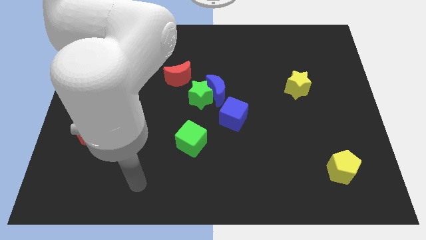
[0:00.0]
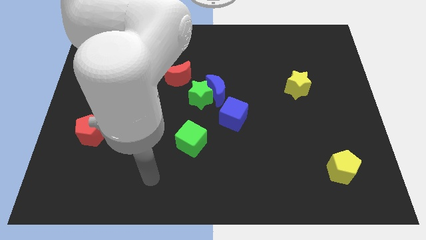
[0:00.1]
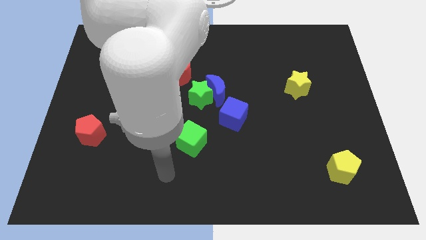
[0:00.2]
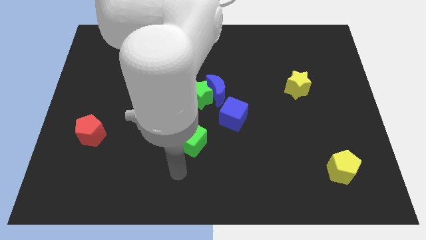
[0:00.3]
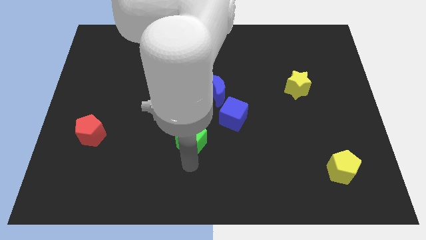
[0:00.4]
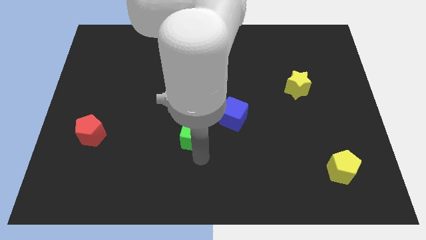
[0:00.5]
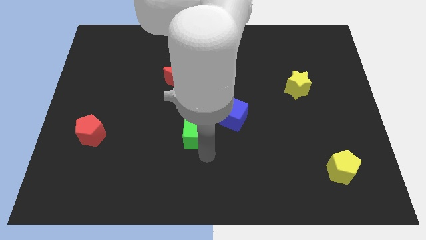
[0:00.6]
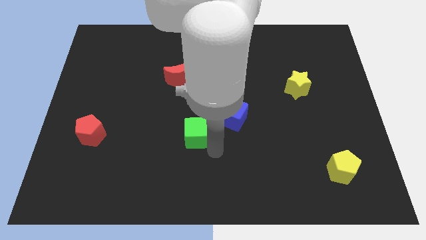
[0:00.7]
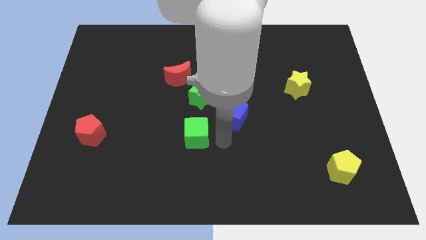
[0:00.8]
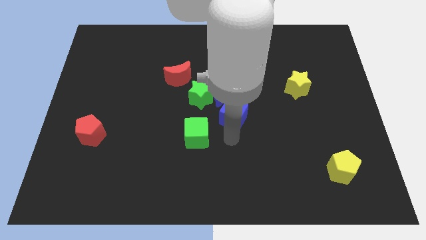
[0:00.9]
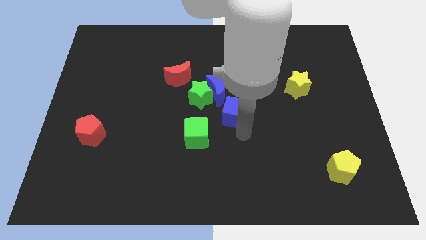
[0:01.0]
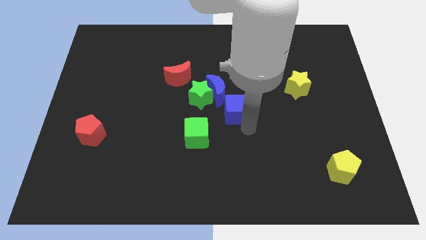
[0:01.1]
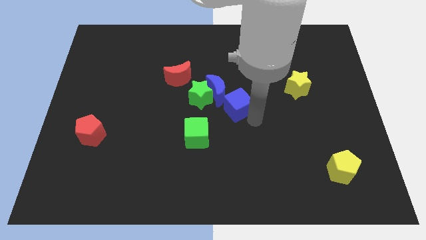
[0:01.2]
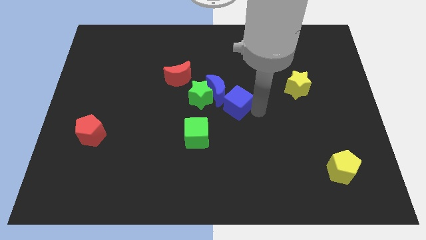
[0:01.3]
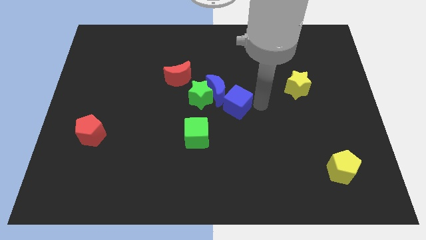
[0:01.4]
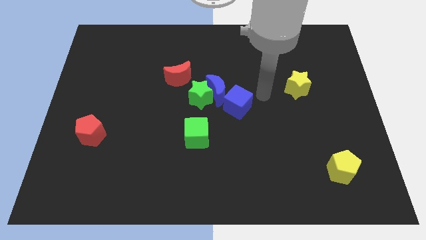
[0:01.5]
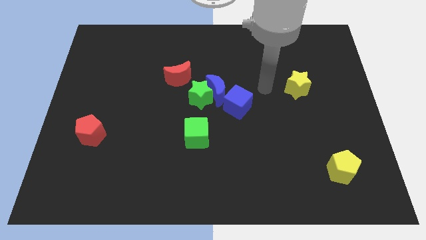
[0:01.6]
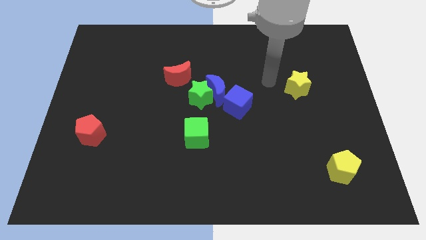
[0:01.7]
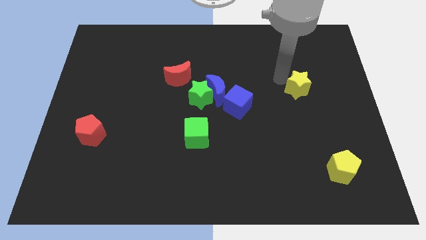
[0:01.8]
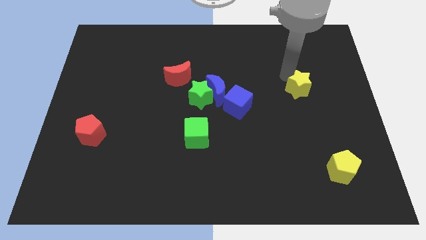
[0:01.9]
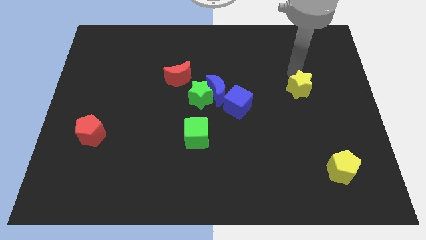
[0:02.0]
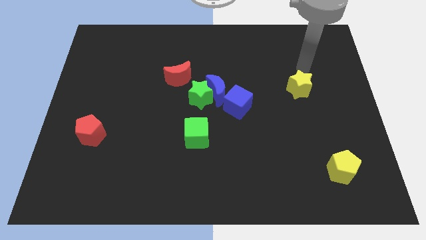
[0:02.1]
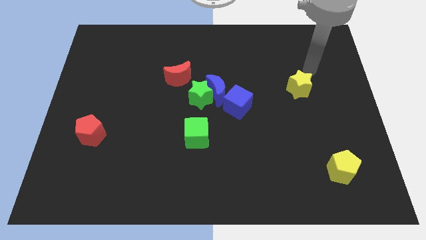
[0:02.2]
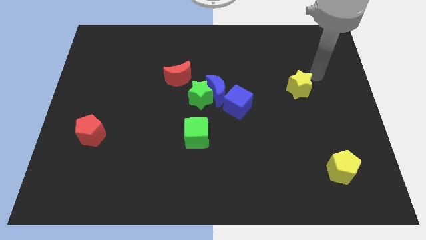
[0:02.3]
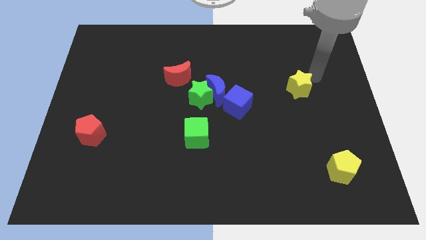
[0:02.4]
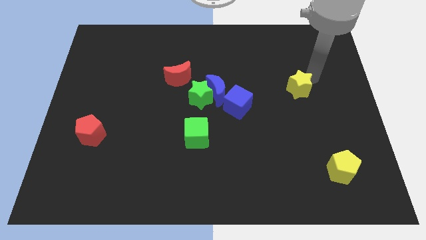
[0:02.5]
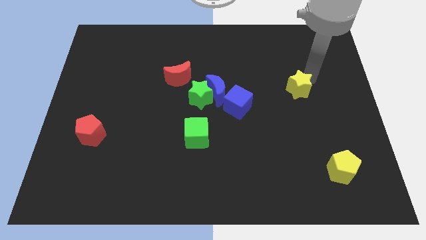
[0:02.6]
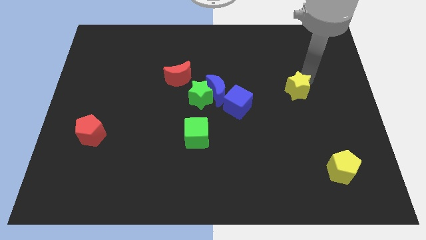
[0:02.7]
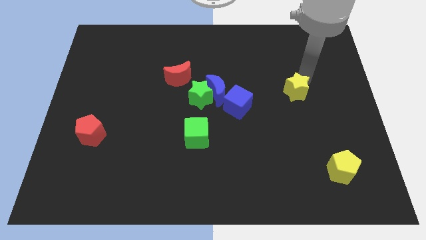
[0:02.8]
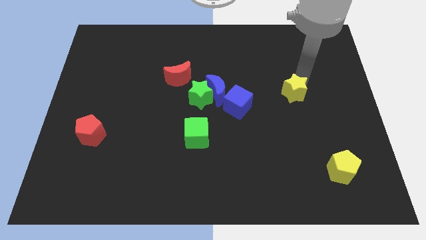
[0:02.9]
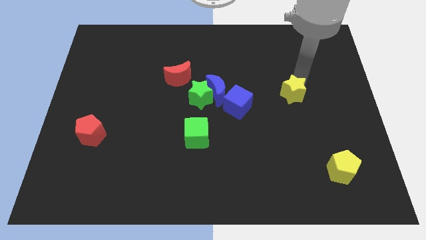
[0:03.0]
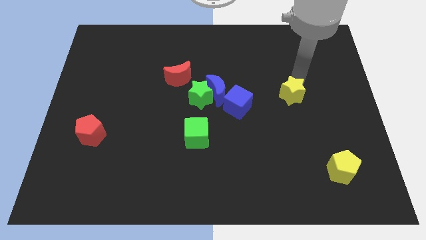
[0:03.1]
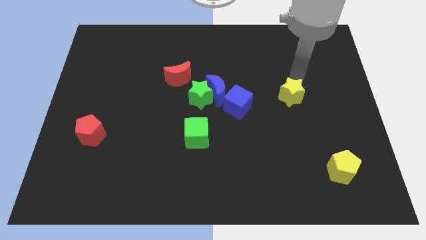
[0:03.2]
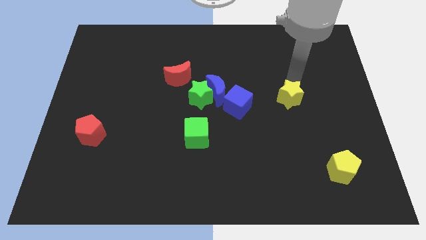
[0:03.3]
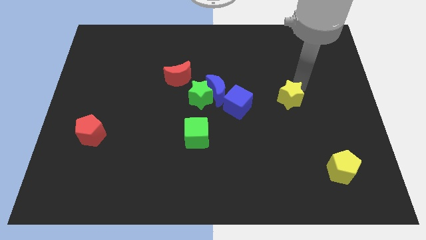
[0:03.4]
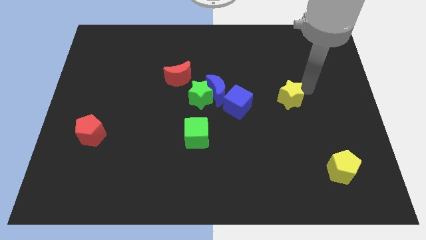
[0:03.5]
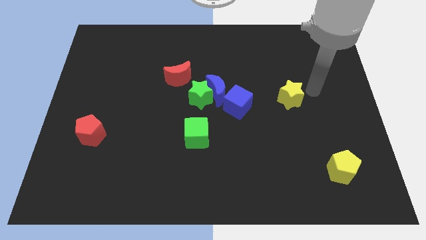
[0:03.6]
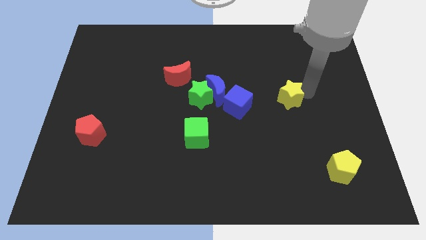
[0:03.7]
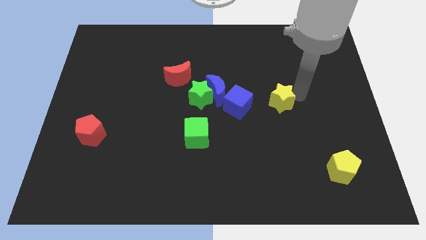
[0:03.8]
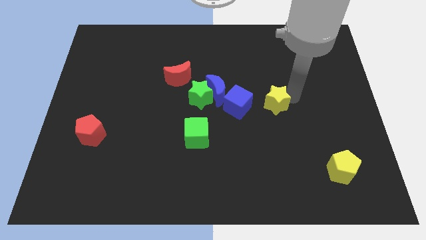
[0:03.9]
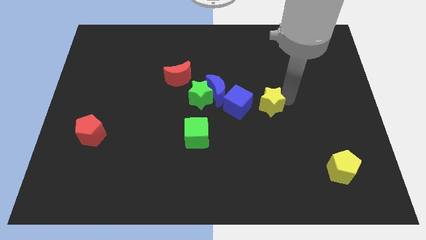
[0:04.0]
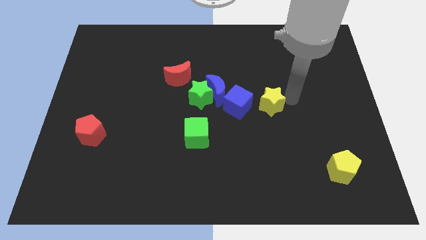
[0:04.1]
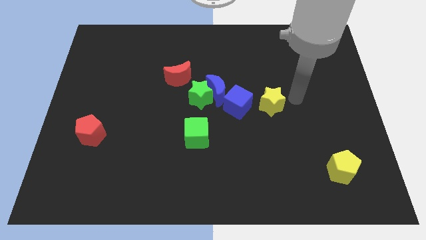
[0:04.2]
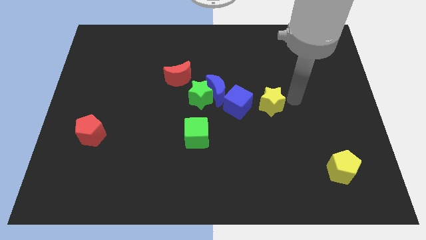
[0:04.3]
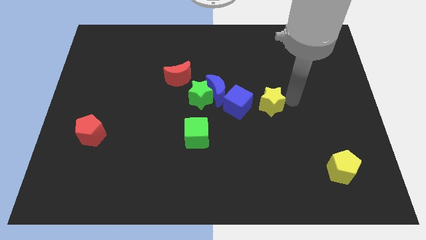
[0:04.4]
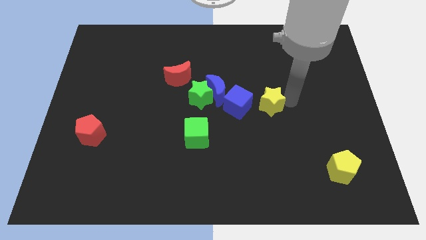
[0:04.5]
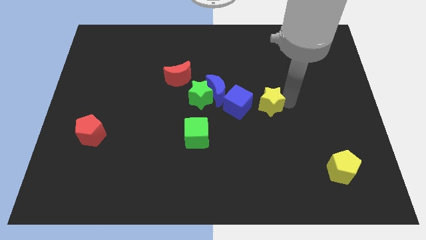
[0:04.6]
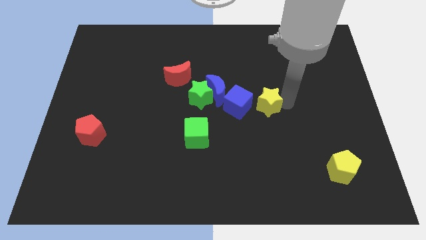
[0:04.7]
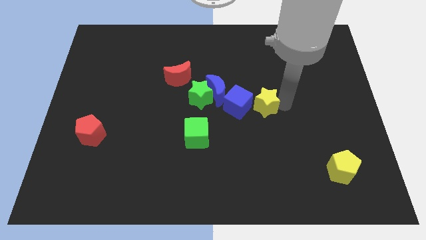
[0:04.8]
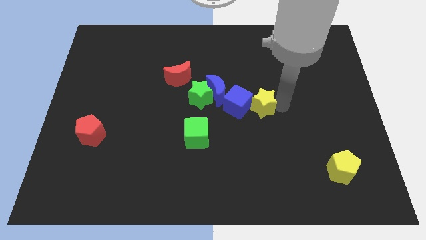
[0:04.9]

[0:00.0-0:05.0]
push the yellow star close to the blue cube

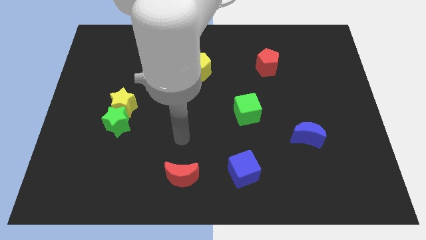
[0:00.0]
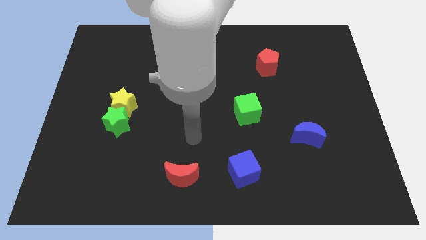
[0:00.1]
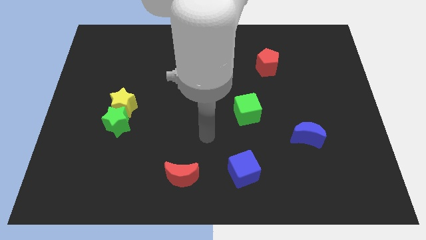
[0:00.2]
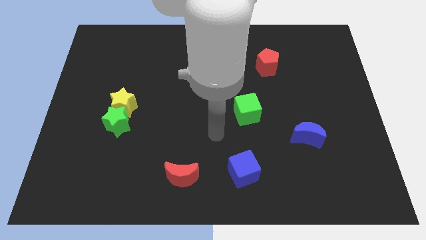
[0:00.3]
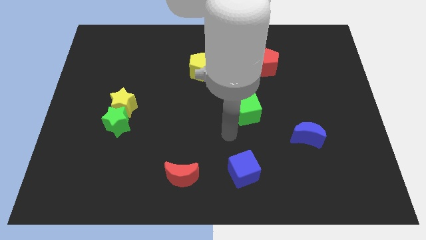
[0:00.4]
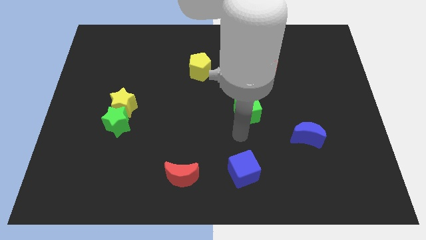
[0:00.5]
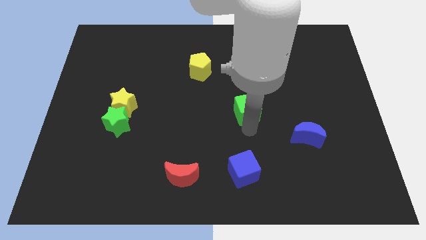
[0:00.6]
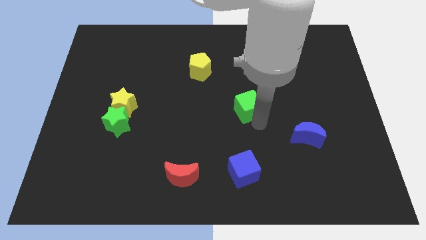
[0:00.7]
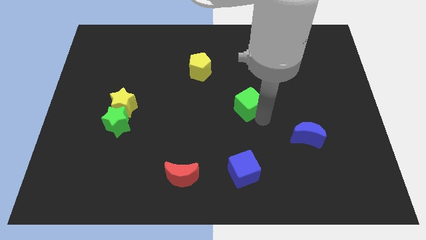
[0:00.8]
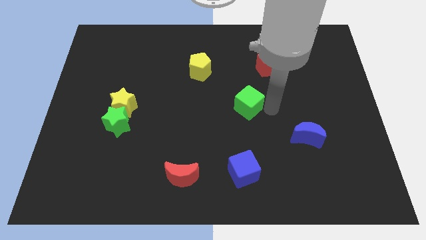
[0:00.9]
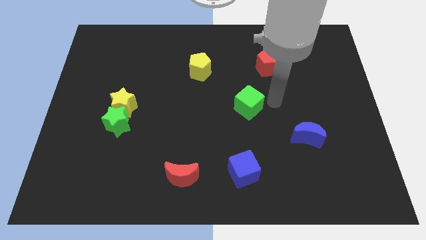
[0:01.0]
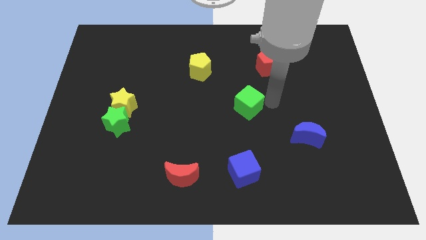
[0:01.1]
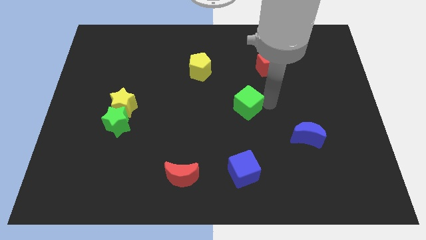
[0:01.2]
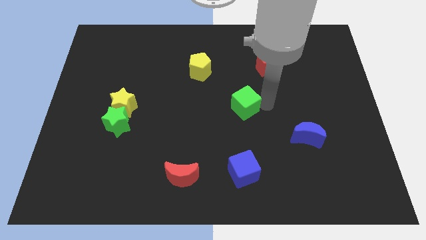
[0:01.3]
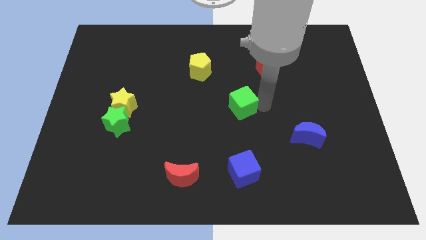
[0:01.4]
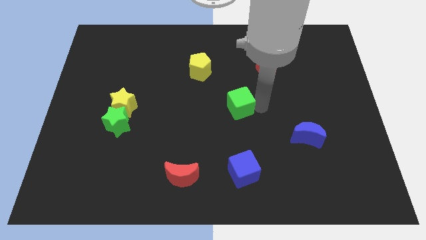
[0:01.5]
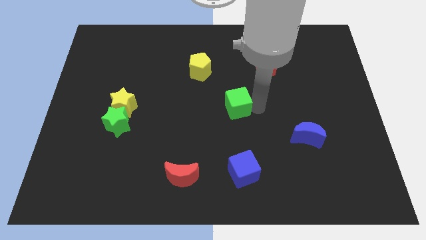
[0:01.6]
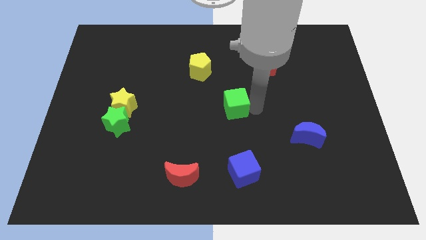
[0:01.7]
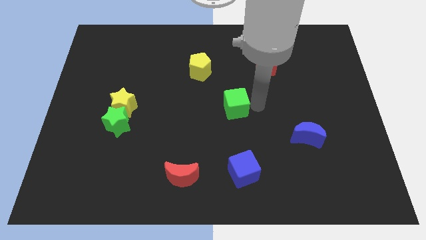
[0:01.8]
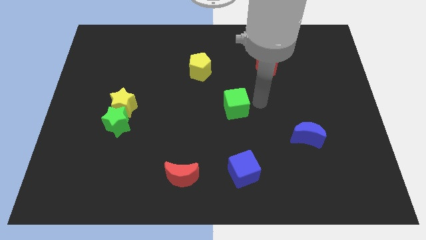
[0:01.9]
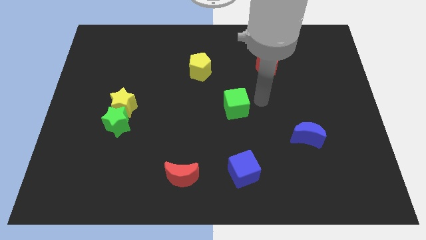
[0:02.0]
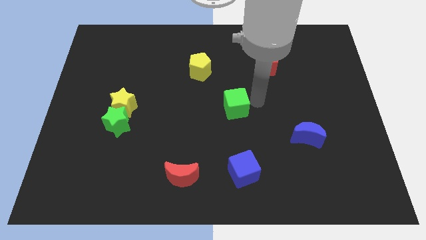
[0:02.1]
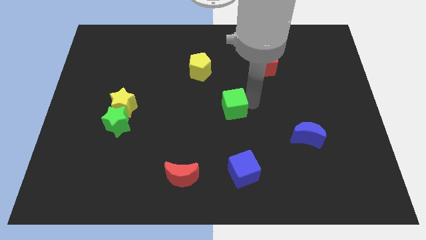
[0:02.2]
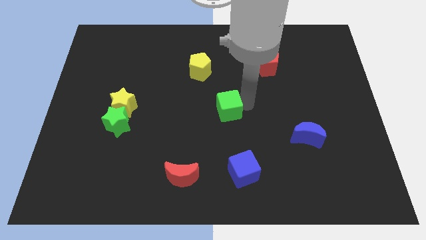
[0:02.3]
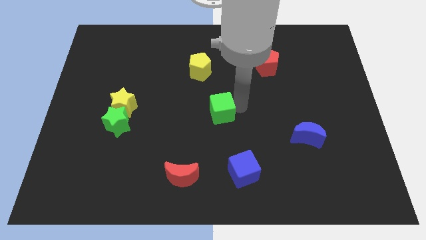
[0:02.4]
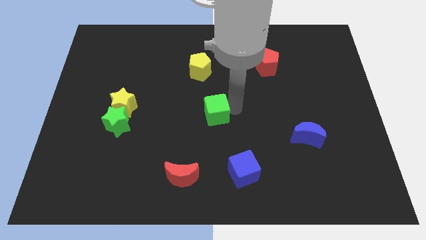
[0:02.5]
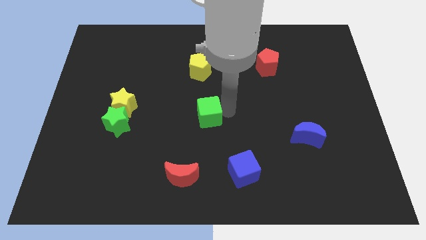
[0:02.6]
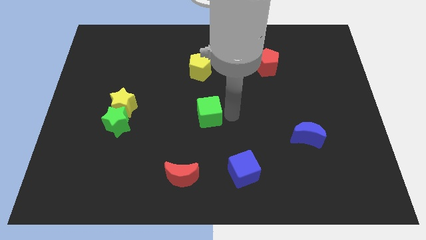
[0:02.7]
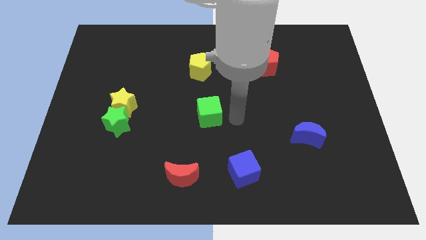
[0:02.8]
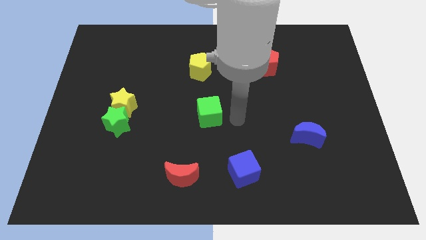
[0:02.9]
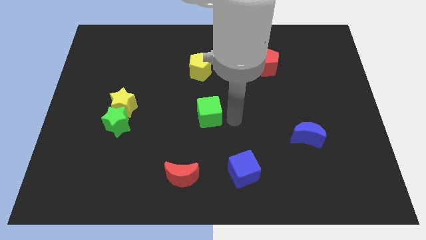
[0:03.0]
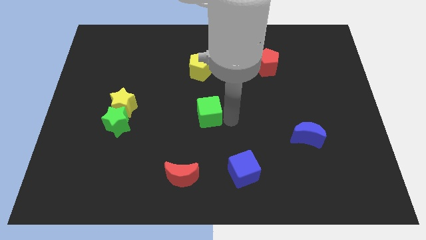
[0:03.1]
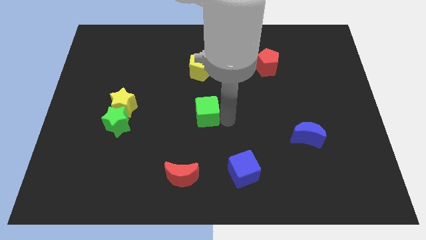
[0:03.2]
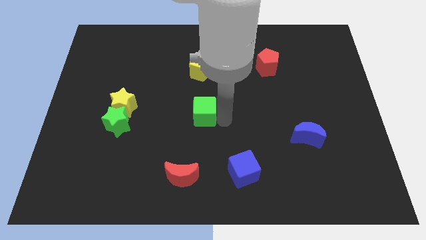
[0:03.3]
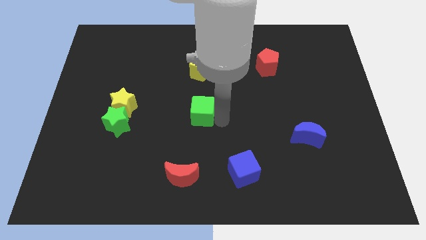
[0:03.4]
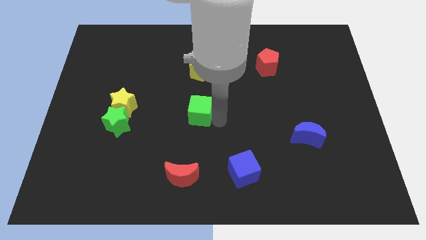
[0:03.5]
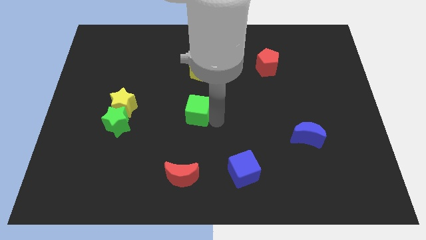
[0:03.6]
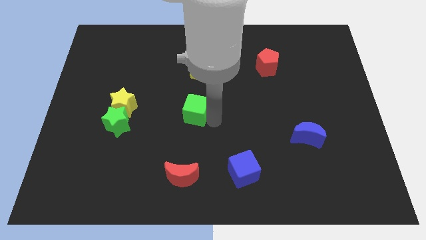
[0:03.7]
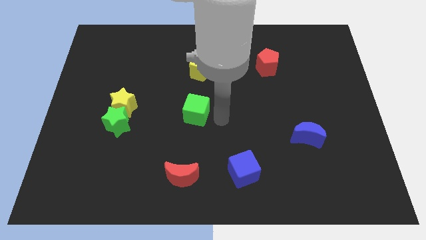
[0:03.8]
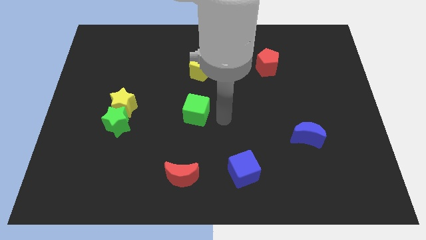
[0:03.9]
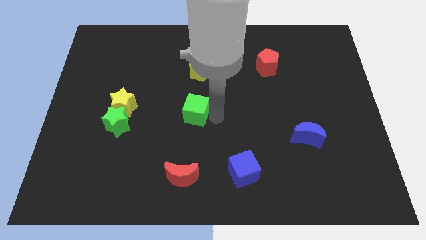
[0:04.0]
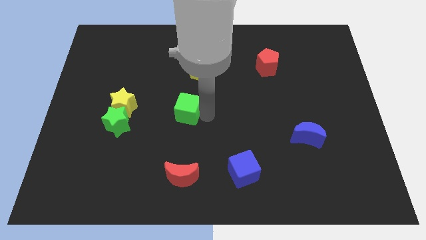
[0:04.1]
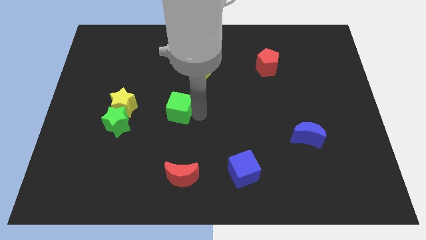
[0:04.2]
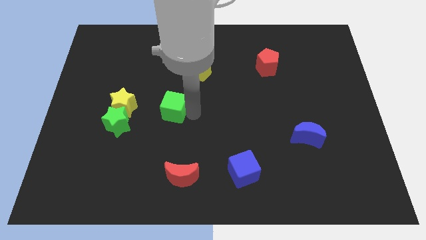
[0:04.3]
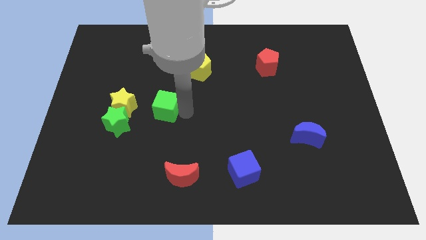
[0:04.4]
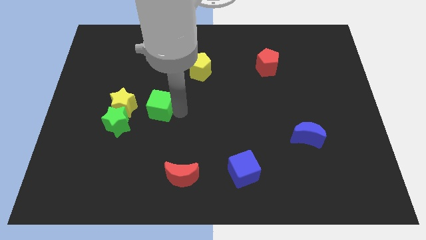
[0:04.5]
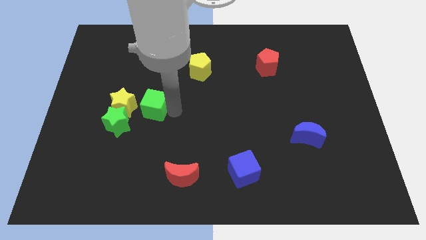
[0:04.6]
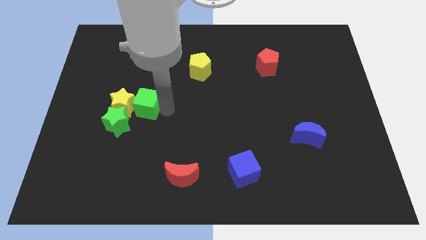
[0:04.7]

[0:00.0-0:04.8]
put the green cube next to the yellow star
